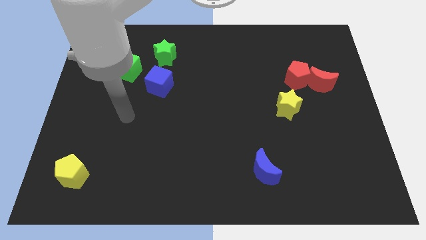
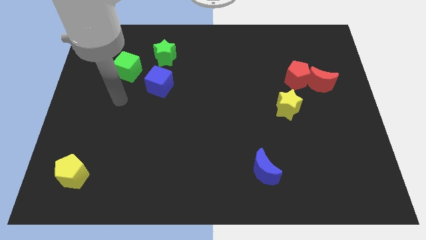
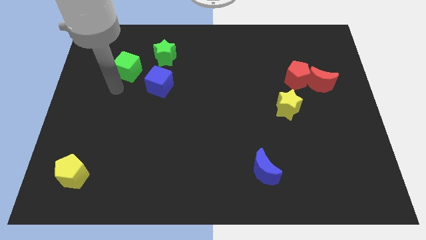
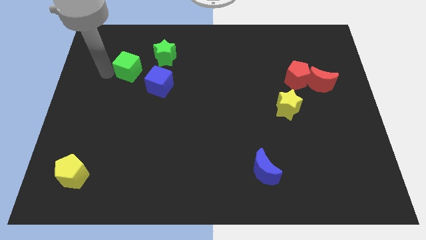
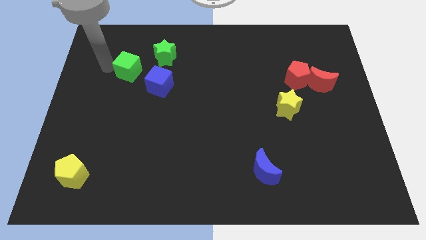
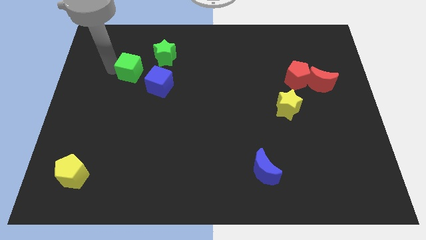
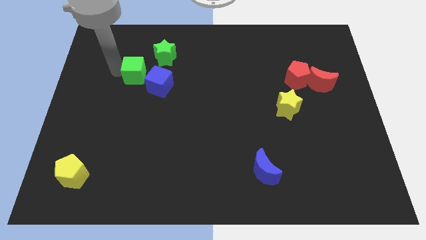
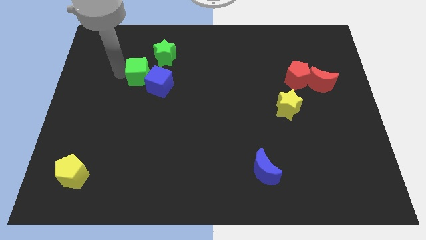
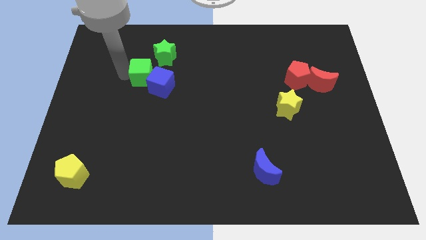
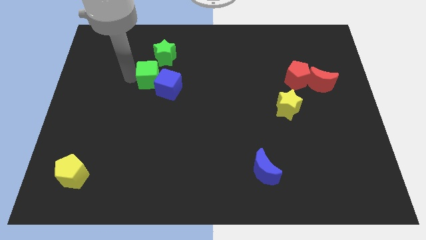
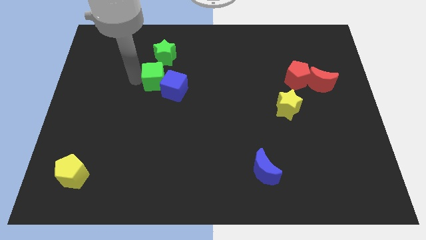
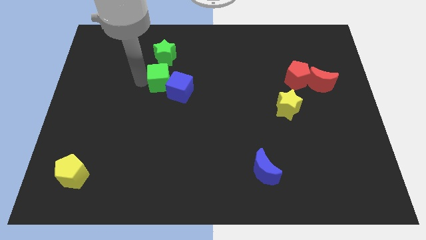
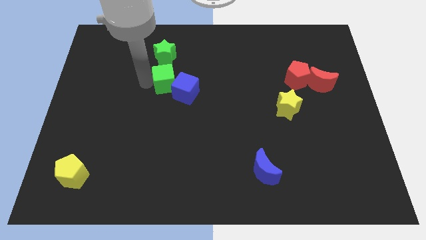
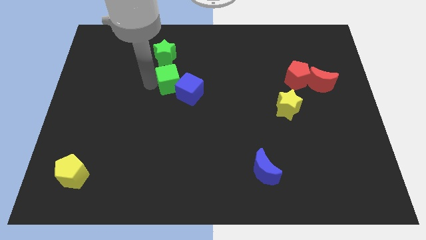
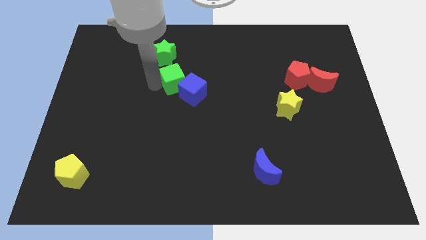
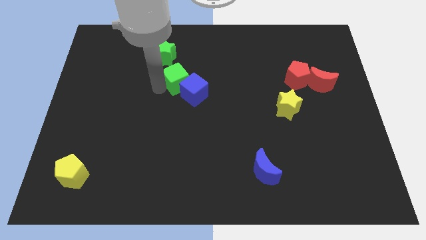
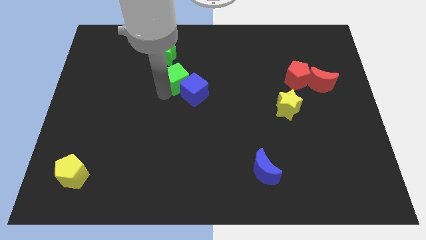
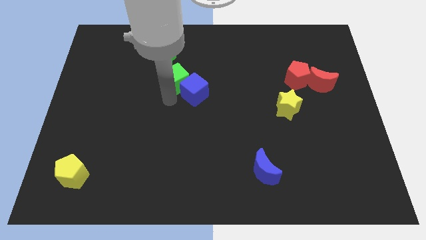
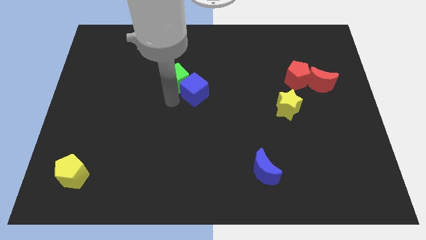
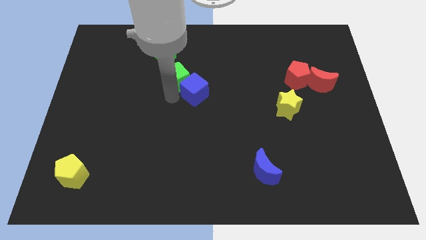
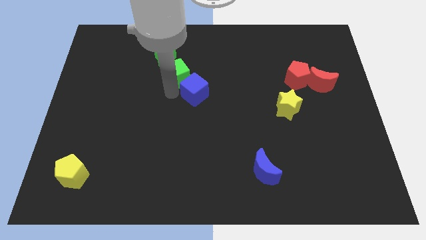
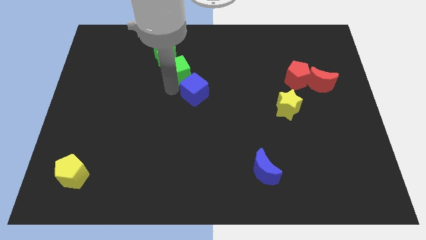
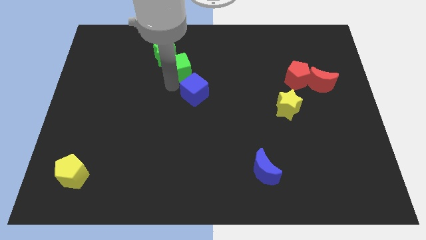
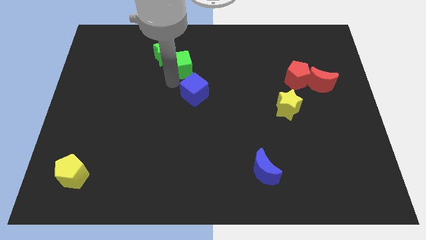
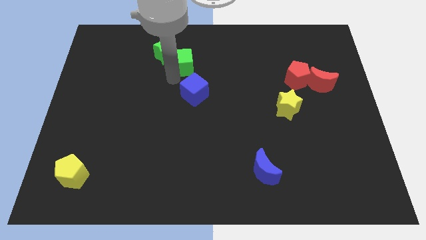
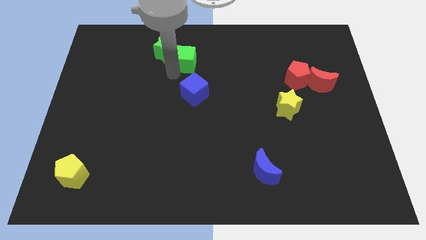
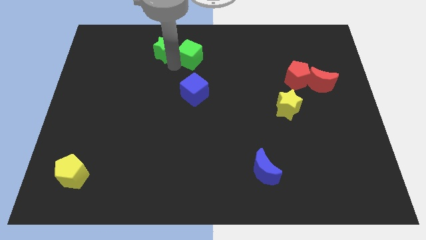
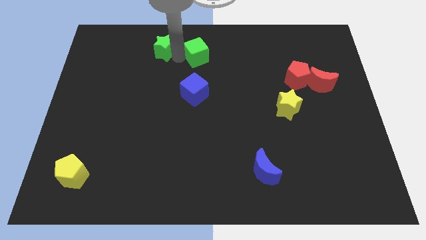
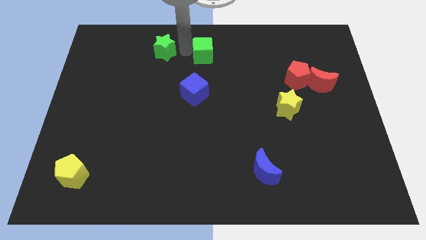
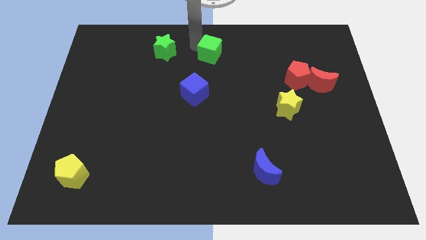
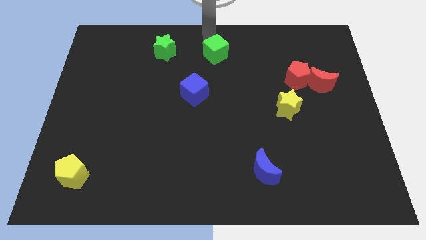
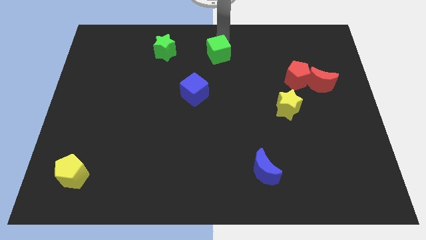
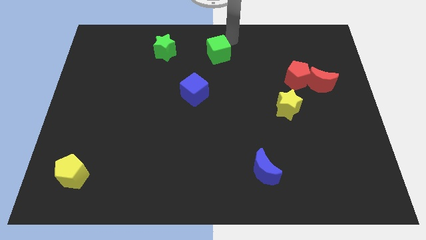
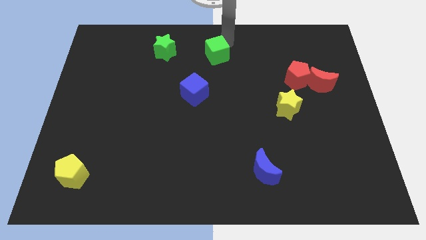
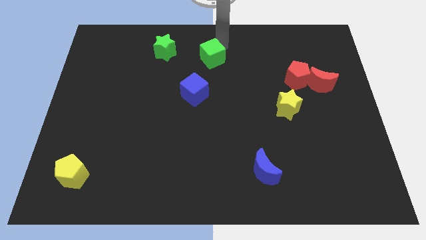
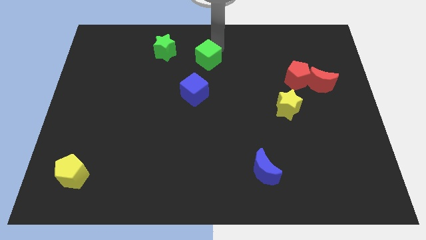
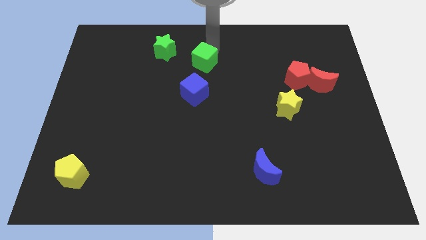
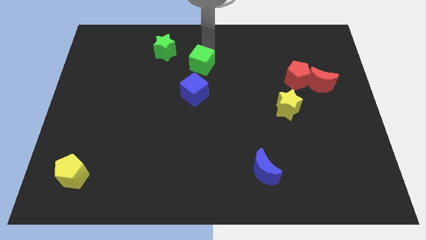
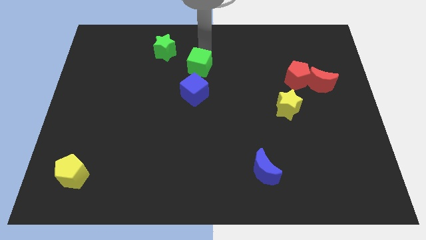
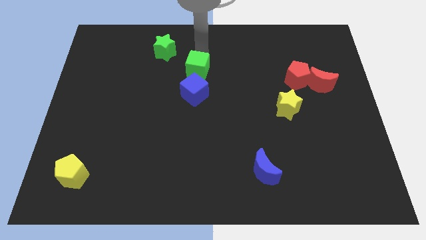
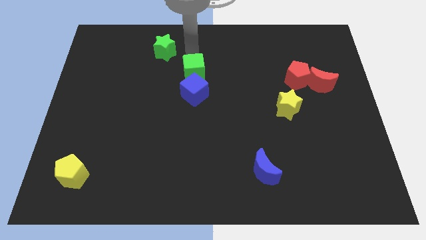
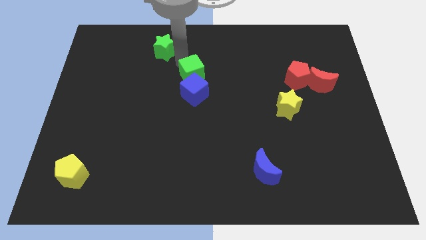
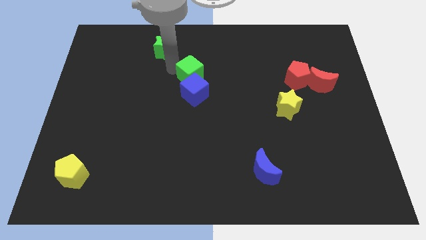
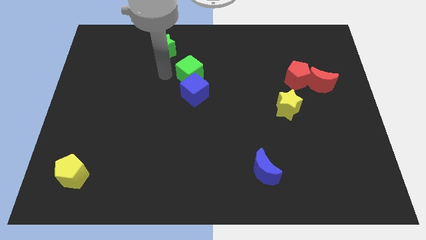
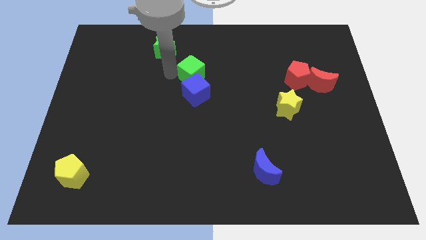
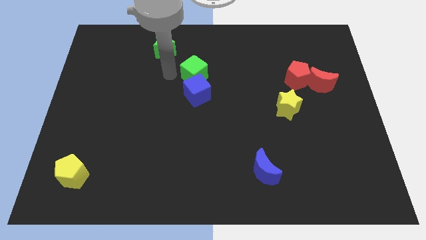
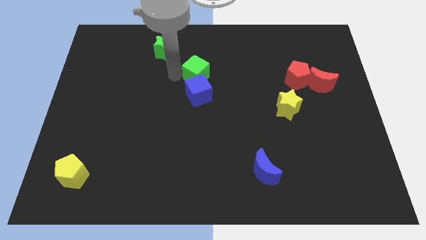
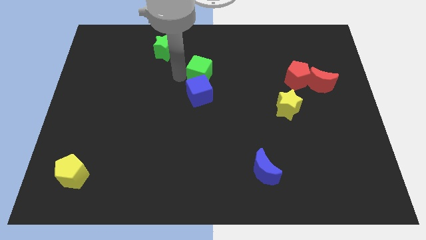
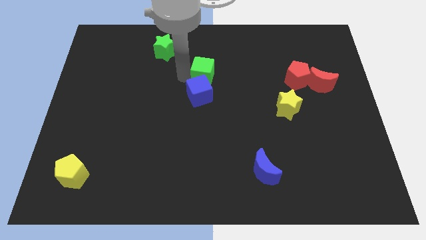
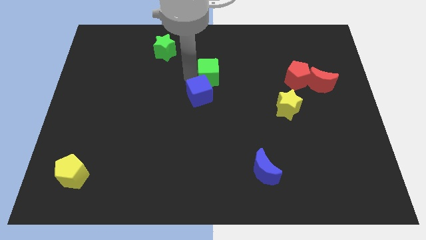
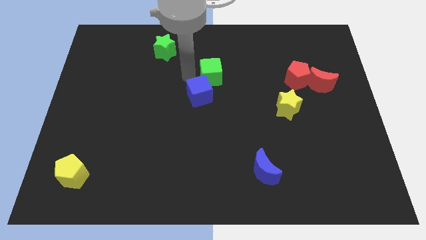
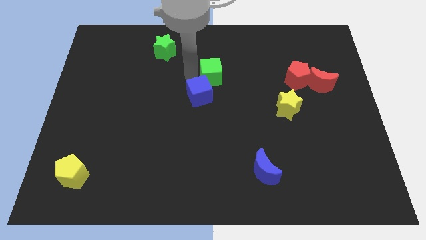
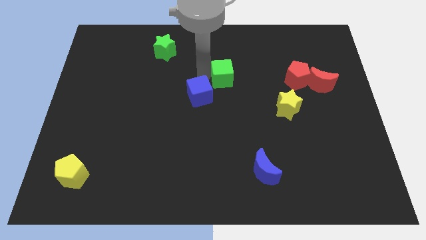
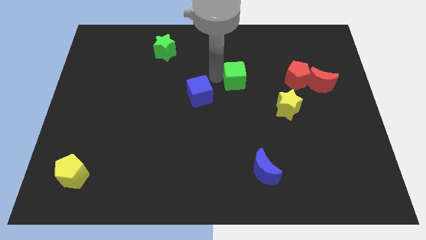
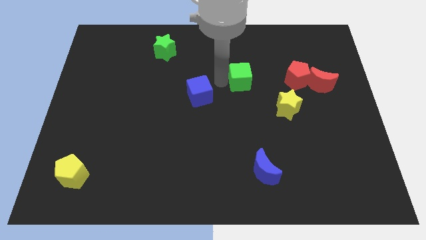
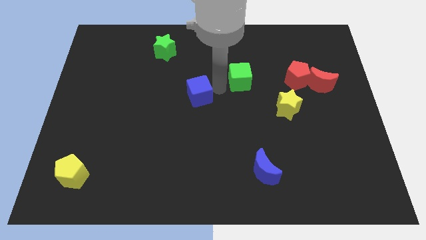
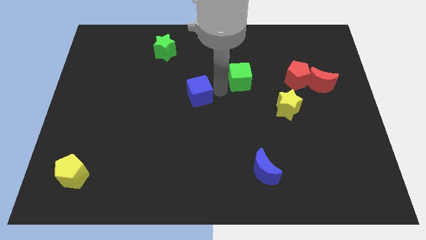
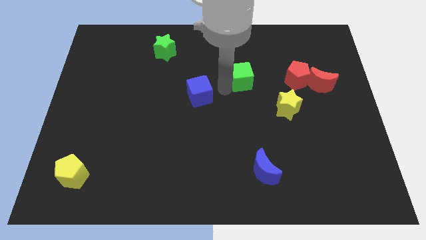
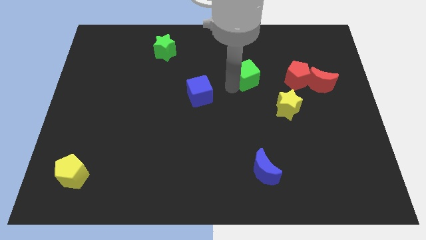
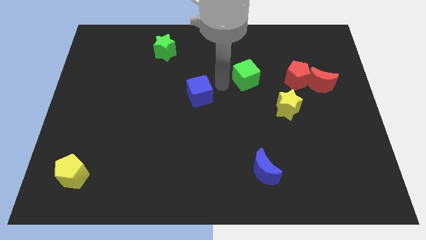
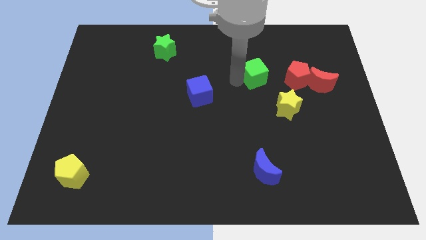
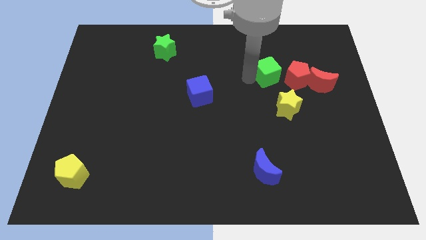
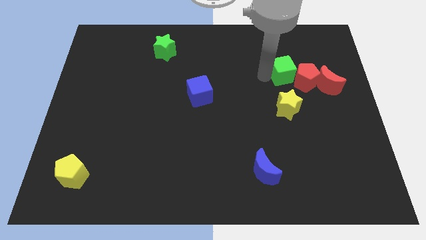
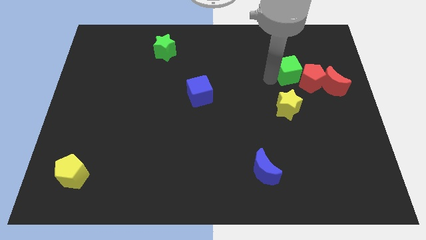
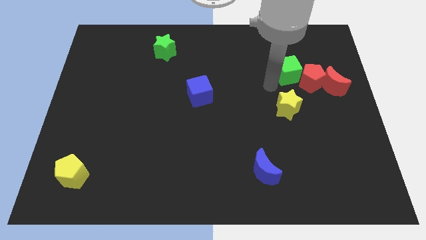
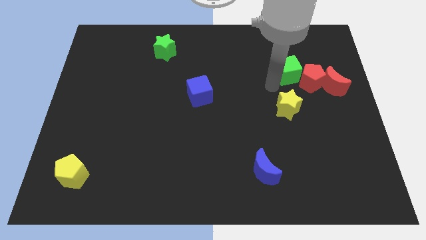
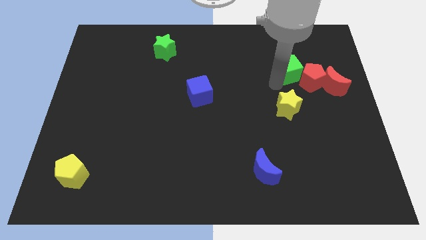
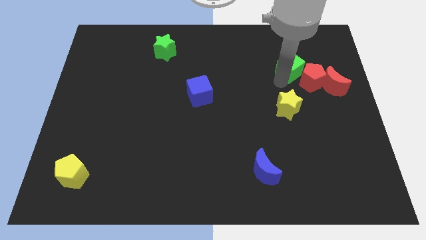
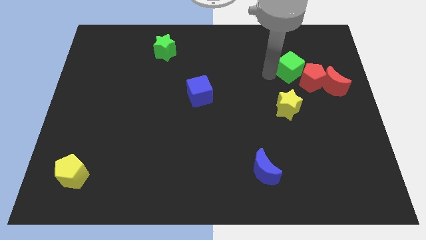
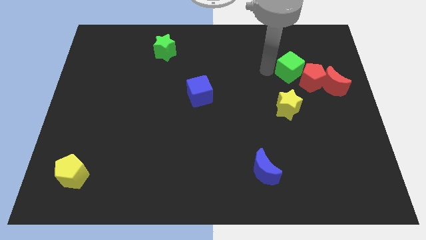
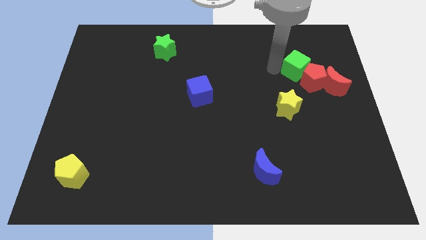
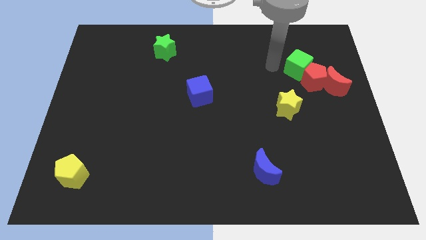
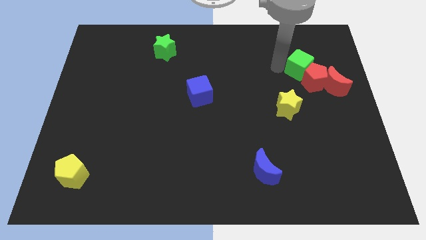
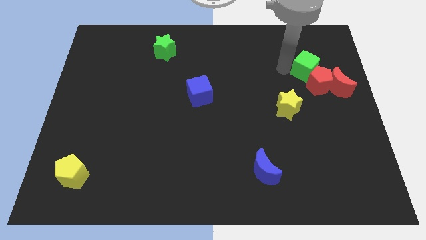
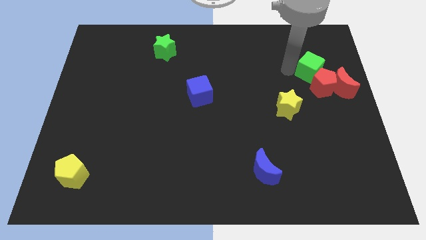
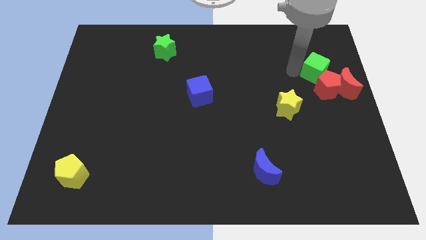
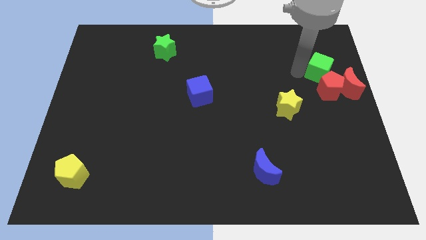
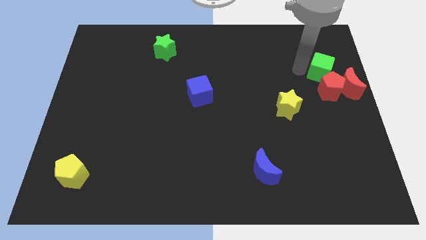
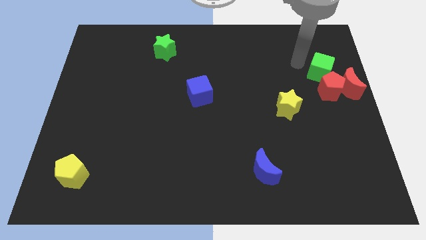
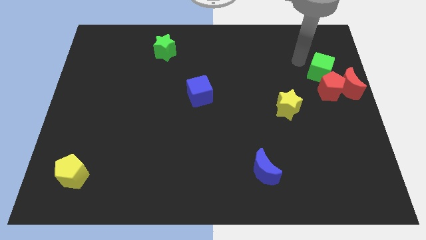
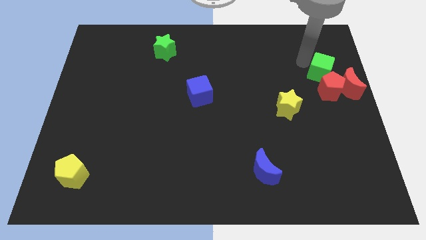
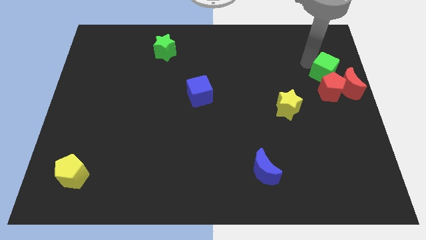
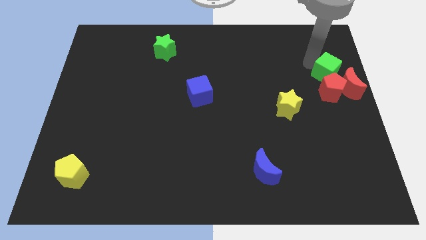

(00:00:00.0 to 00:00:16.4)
move the green cube to the right side
